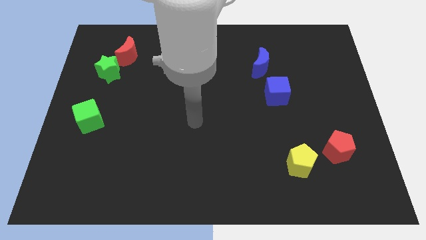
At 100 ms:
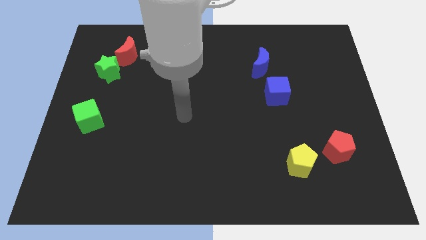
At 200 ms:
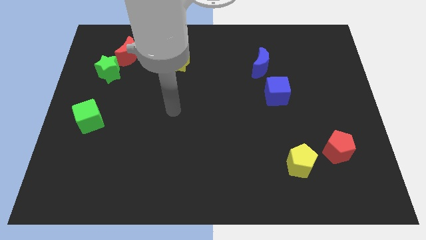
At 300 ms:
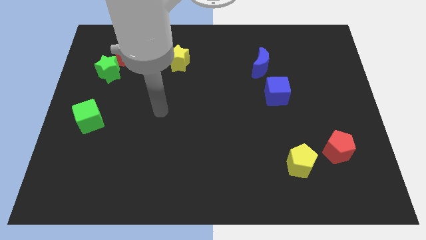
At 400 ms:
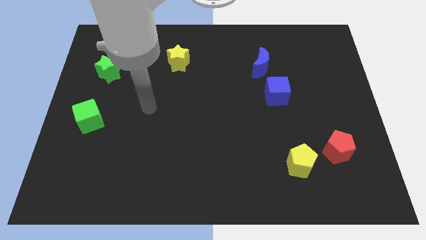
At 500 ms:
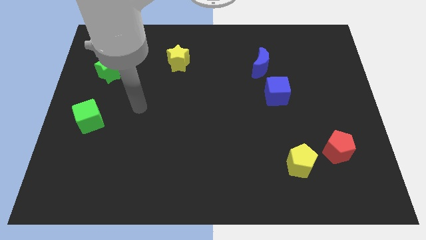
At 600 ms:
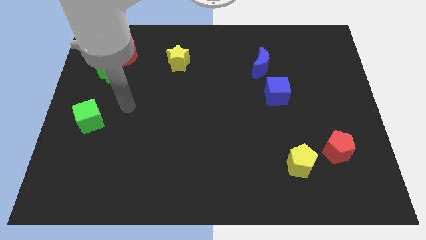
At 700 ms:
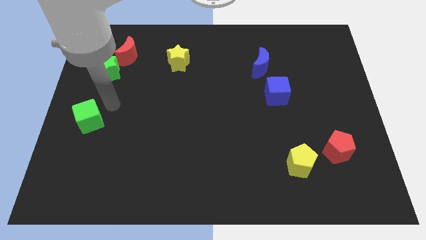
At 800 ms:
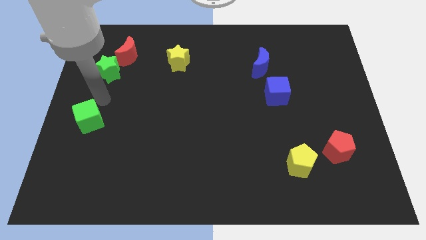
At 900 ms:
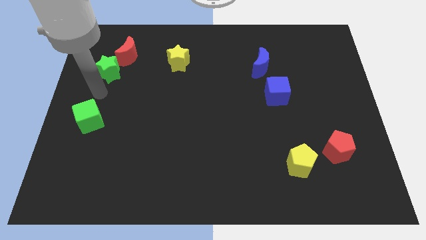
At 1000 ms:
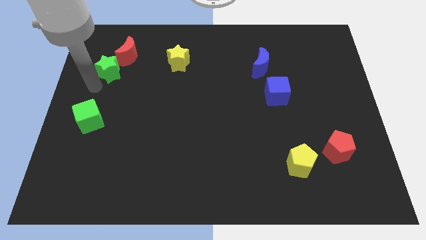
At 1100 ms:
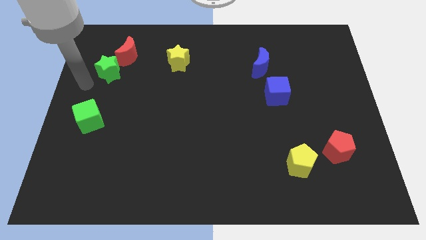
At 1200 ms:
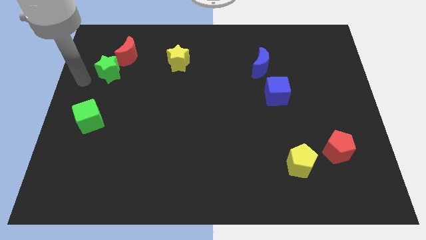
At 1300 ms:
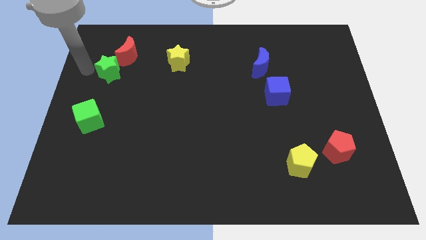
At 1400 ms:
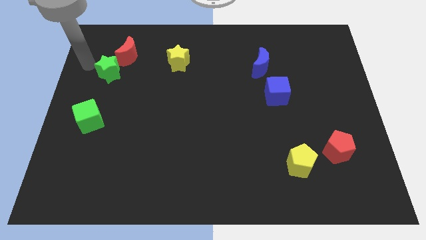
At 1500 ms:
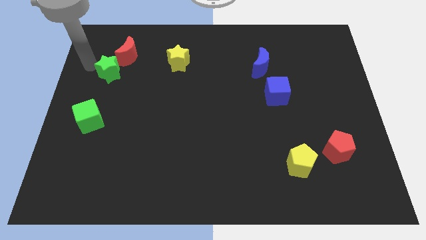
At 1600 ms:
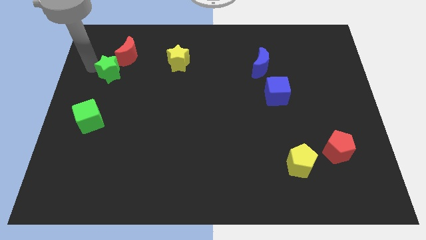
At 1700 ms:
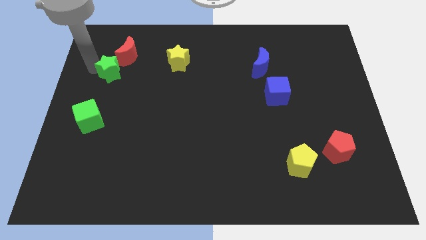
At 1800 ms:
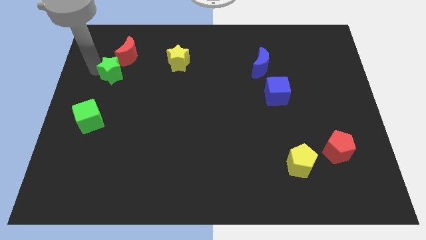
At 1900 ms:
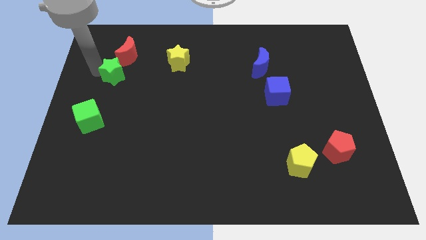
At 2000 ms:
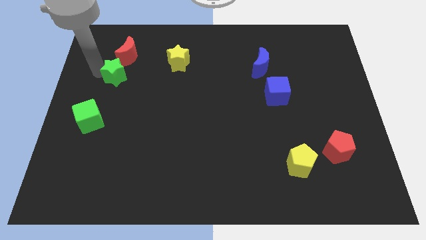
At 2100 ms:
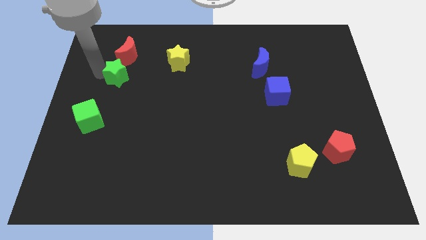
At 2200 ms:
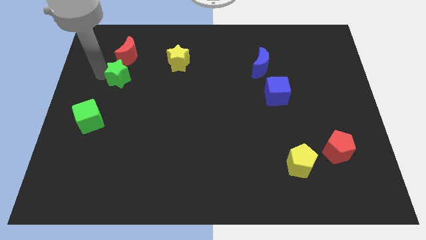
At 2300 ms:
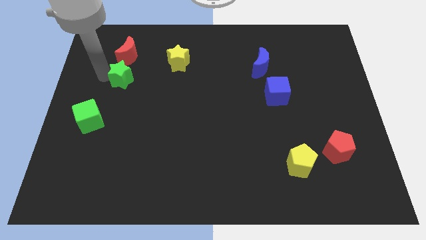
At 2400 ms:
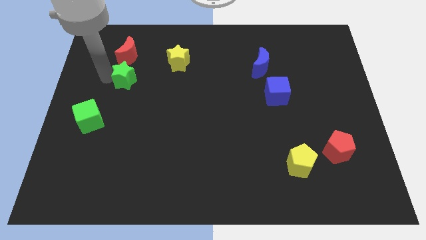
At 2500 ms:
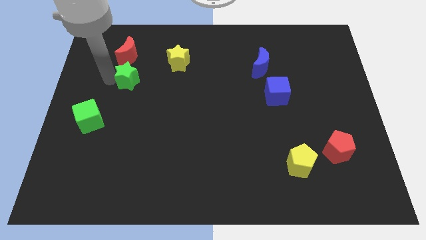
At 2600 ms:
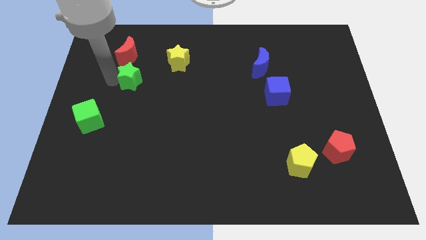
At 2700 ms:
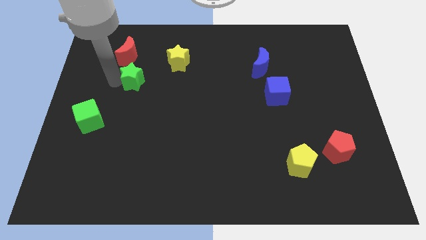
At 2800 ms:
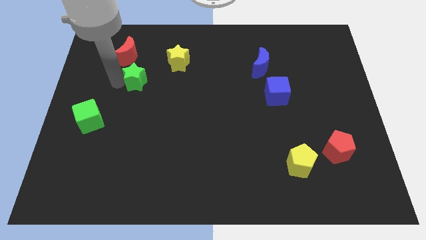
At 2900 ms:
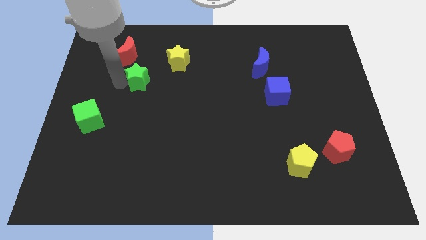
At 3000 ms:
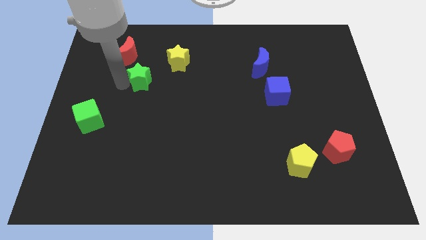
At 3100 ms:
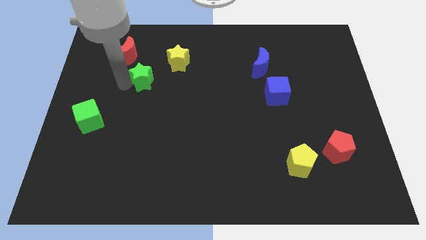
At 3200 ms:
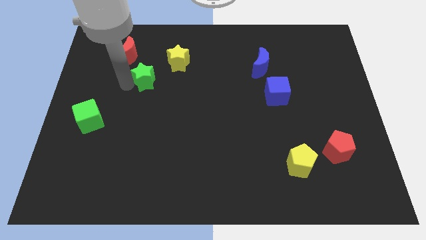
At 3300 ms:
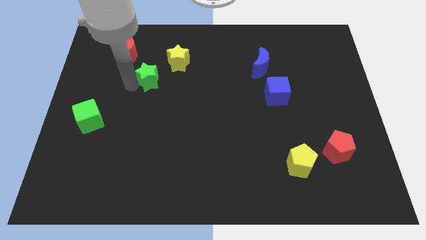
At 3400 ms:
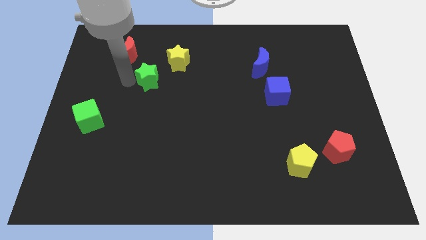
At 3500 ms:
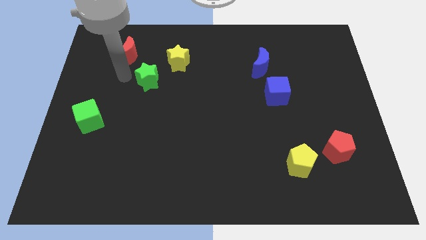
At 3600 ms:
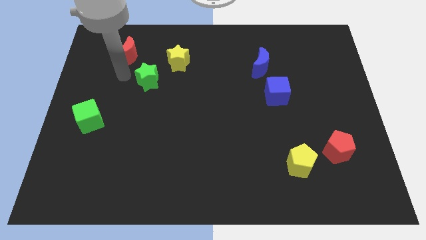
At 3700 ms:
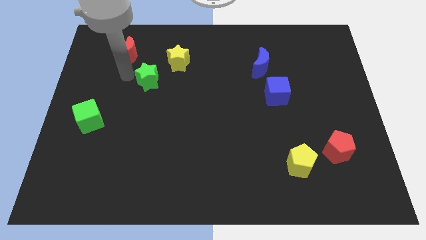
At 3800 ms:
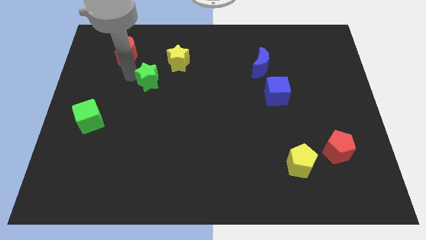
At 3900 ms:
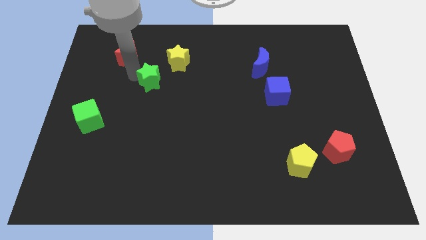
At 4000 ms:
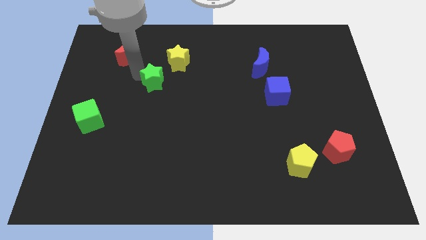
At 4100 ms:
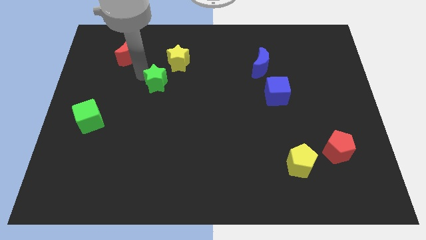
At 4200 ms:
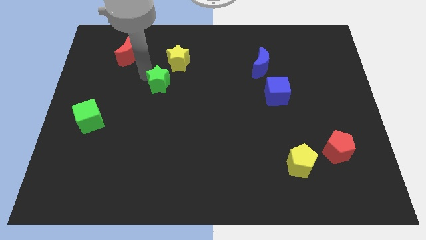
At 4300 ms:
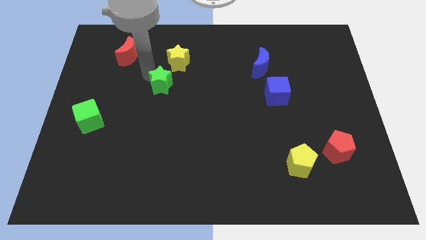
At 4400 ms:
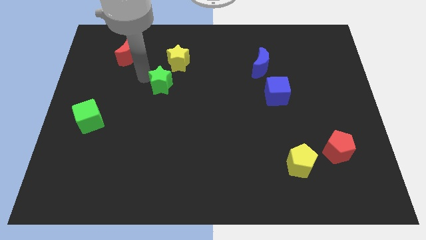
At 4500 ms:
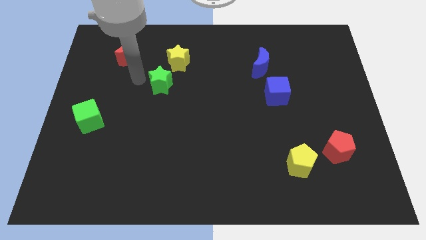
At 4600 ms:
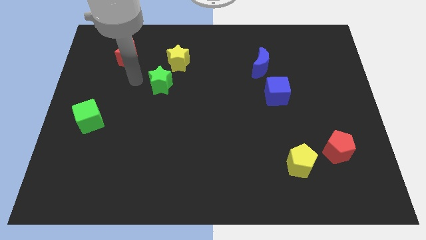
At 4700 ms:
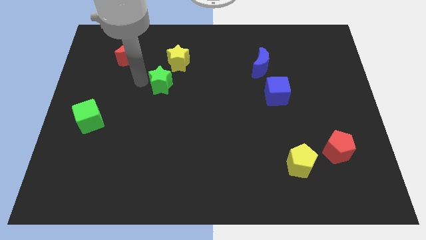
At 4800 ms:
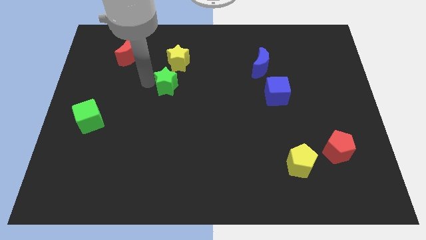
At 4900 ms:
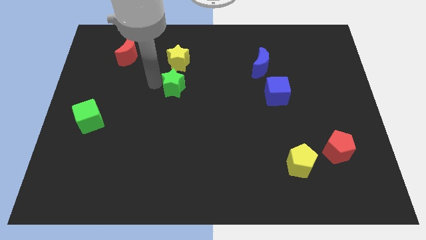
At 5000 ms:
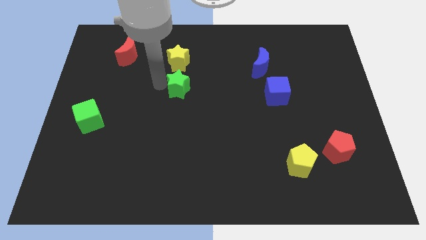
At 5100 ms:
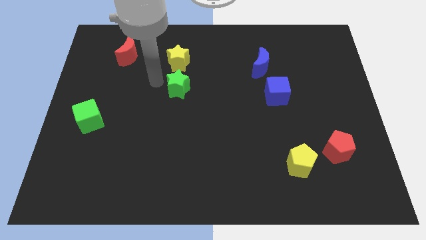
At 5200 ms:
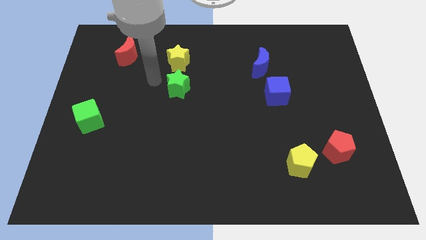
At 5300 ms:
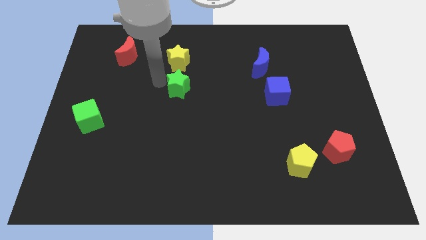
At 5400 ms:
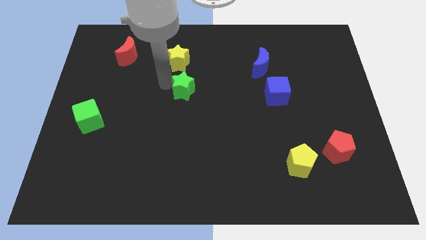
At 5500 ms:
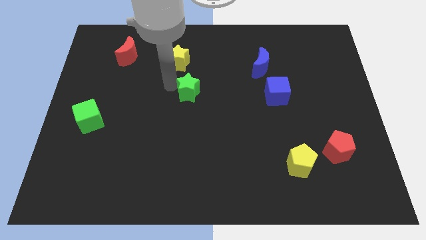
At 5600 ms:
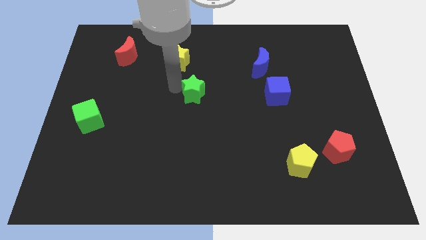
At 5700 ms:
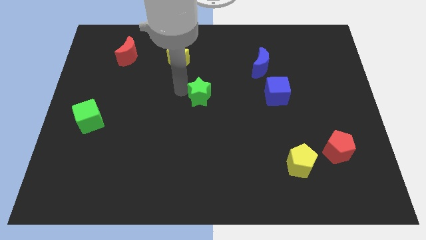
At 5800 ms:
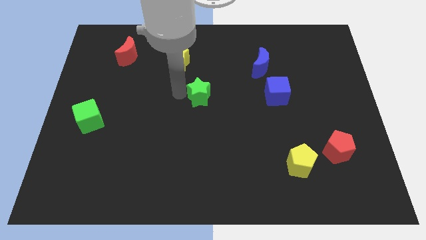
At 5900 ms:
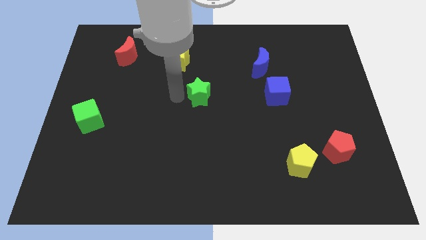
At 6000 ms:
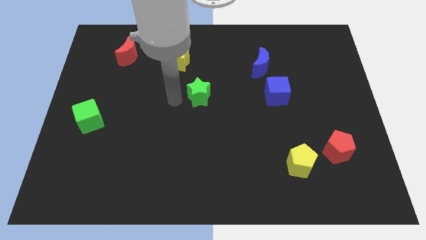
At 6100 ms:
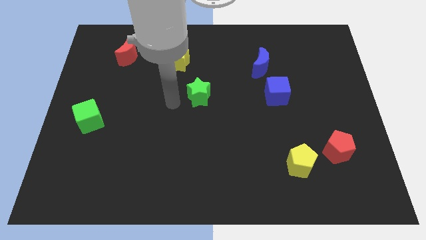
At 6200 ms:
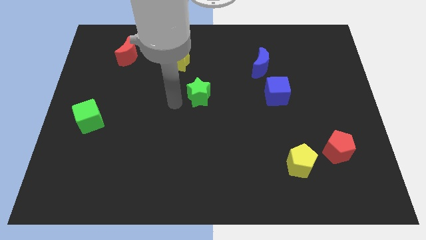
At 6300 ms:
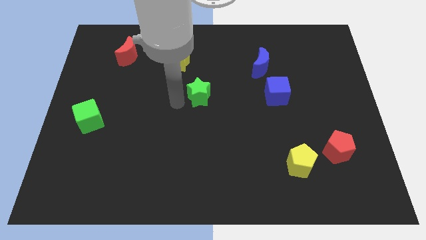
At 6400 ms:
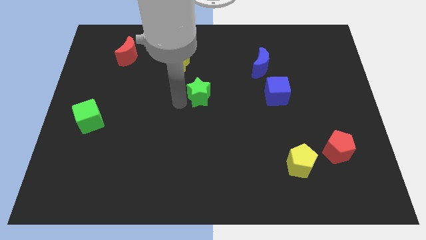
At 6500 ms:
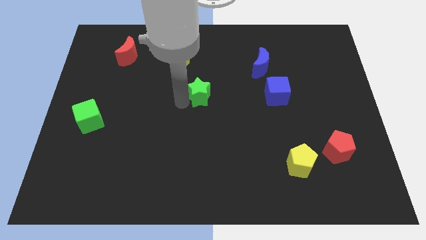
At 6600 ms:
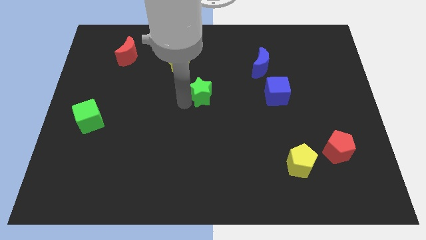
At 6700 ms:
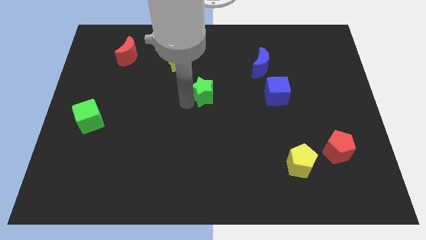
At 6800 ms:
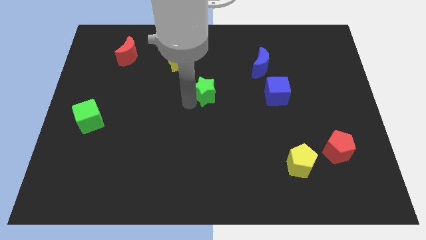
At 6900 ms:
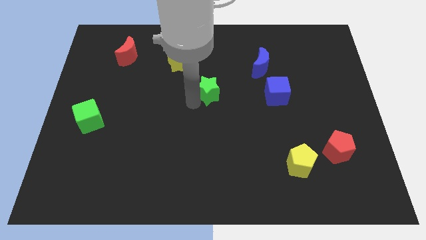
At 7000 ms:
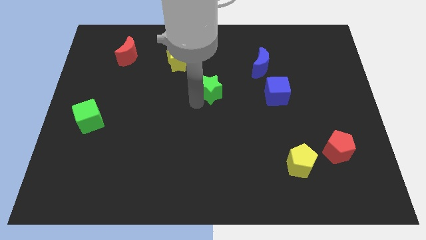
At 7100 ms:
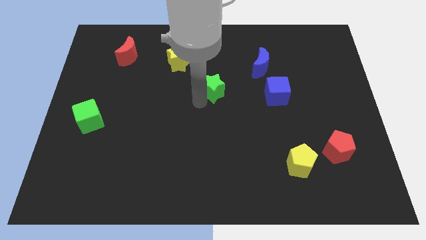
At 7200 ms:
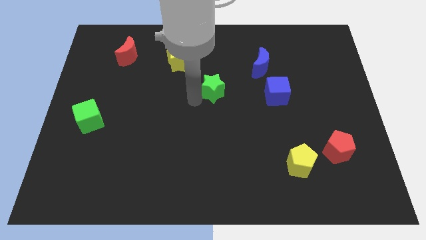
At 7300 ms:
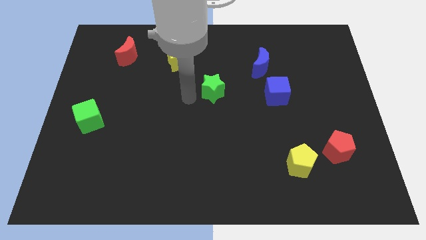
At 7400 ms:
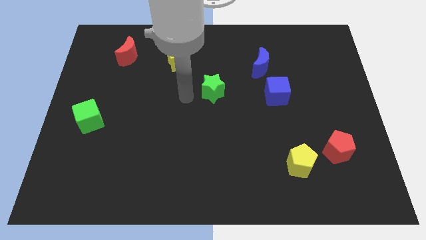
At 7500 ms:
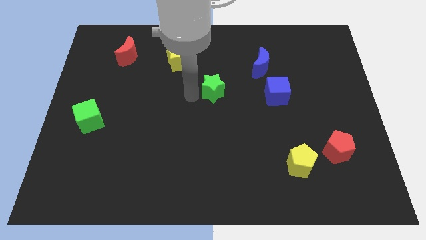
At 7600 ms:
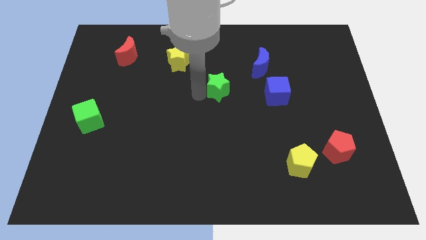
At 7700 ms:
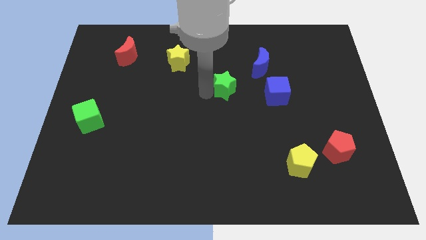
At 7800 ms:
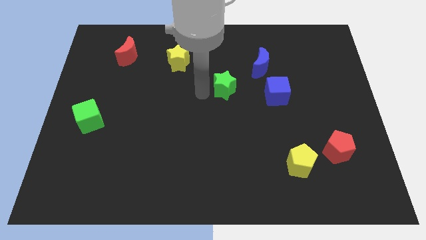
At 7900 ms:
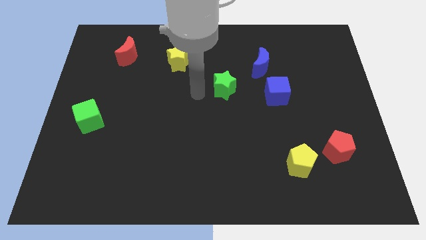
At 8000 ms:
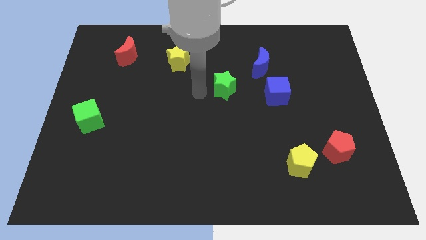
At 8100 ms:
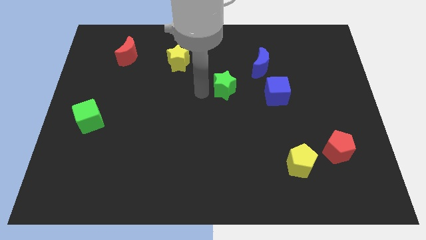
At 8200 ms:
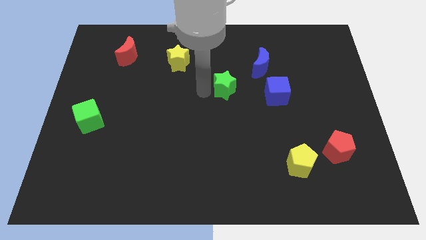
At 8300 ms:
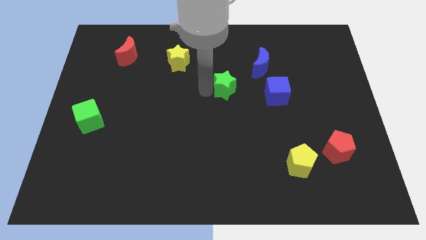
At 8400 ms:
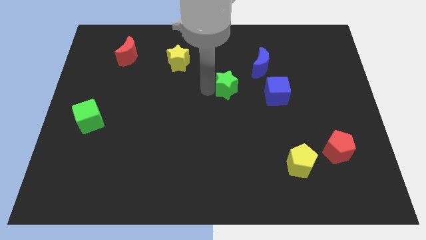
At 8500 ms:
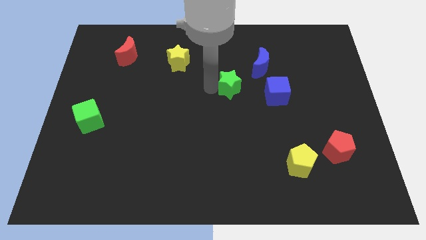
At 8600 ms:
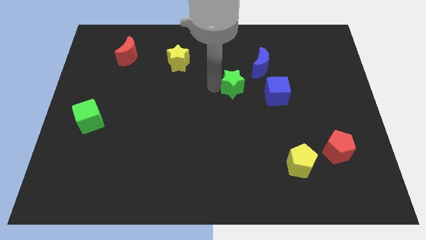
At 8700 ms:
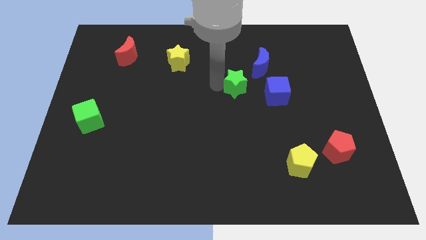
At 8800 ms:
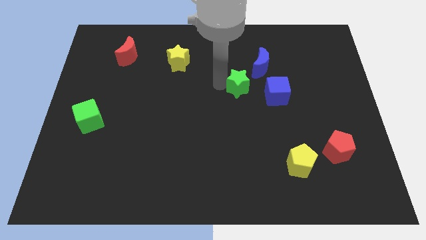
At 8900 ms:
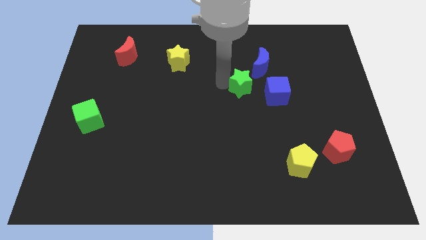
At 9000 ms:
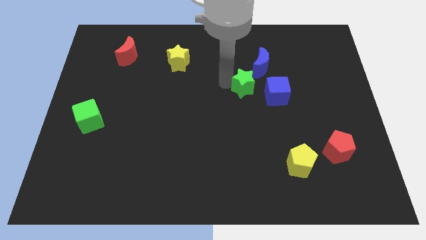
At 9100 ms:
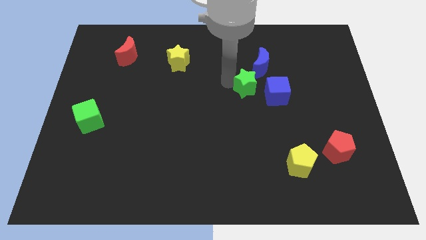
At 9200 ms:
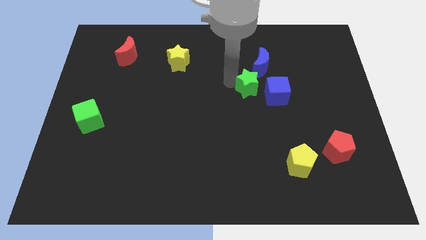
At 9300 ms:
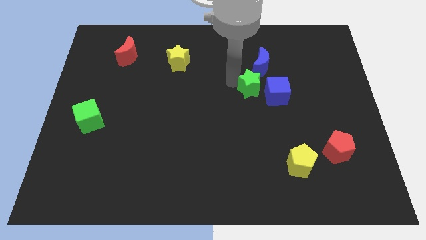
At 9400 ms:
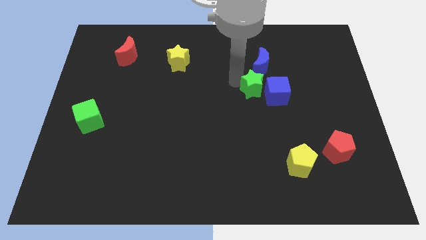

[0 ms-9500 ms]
move the green star next to the blue cube
